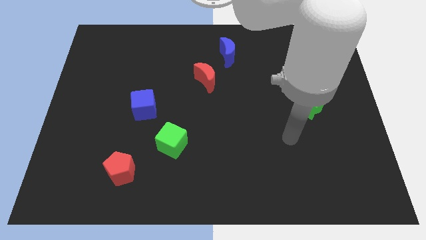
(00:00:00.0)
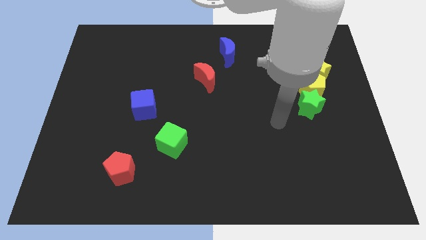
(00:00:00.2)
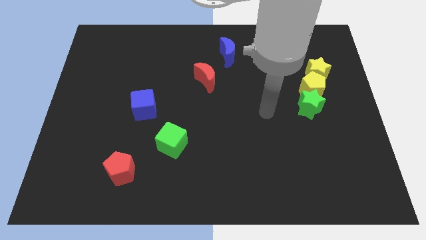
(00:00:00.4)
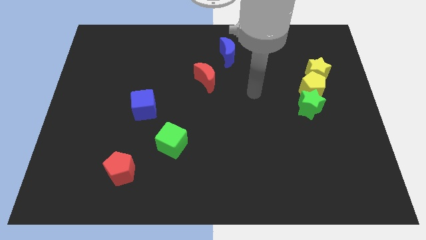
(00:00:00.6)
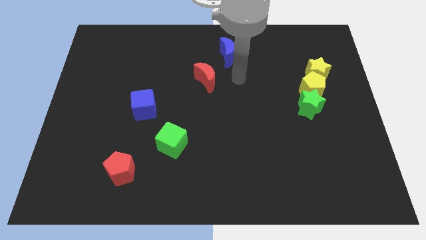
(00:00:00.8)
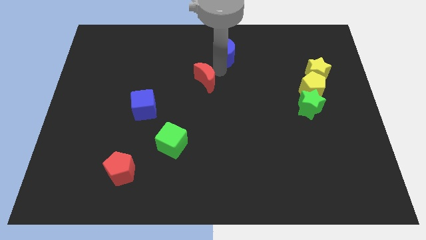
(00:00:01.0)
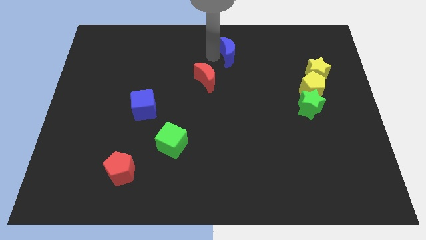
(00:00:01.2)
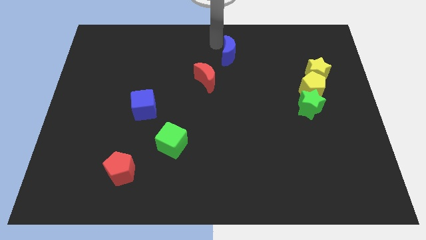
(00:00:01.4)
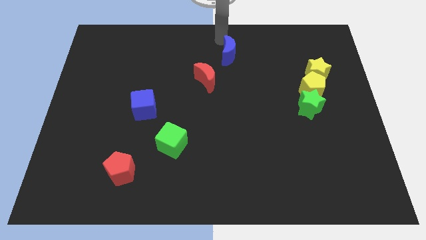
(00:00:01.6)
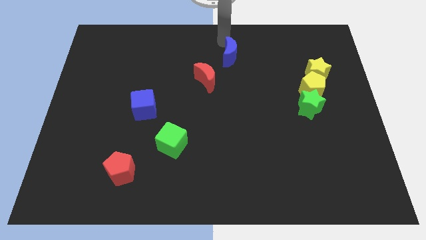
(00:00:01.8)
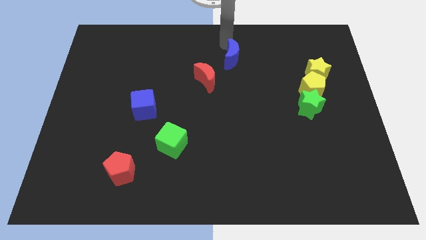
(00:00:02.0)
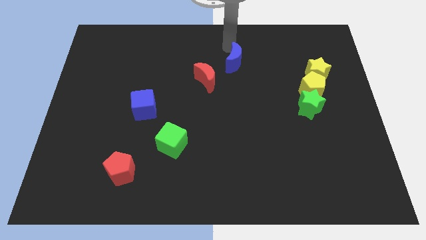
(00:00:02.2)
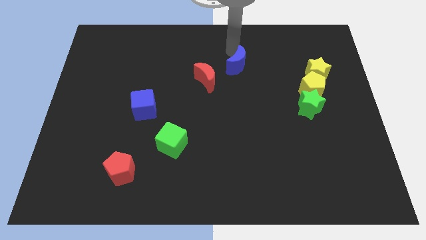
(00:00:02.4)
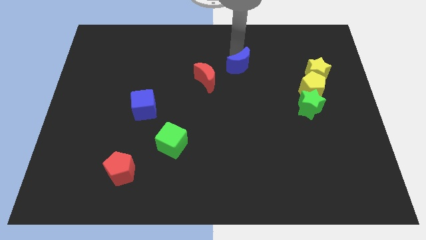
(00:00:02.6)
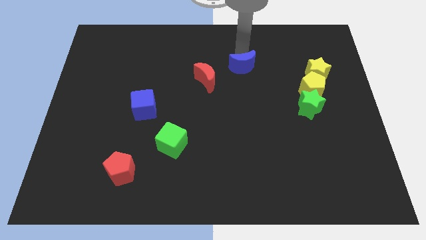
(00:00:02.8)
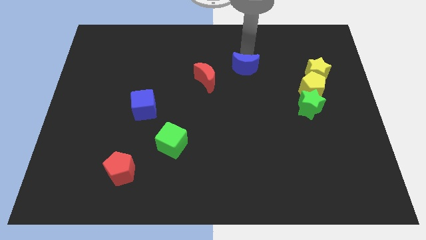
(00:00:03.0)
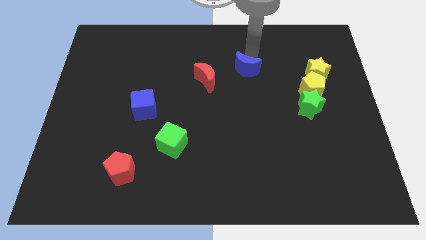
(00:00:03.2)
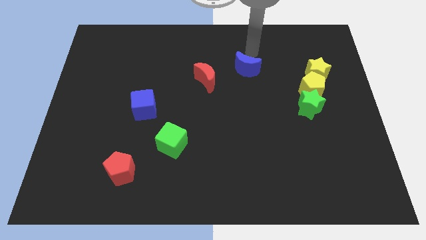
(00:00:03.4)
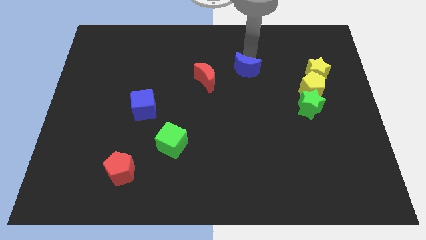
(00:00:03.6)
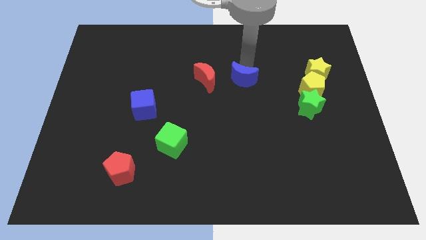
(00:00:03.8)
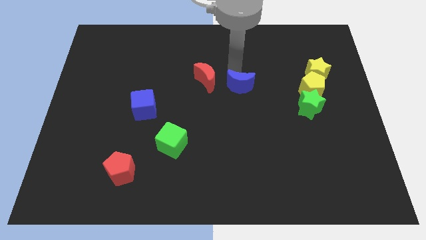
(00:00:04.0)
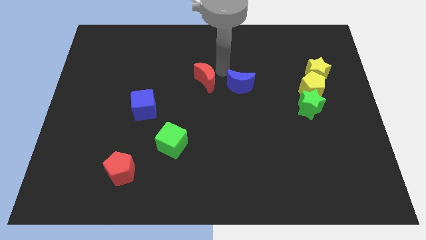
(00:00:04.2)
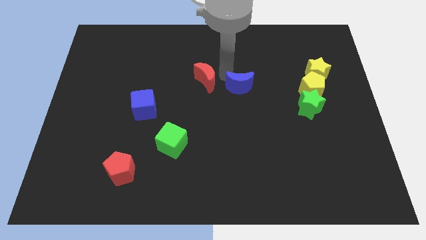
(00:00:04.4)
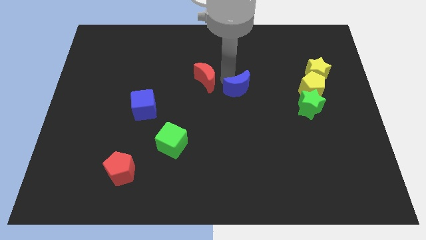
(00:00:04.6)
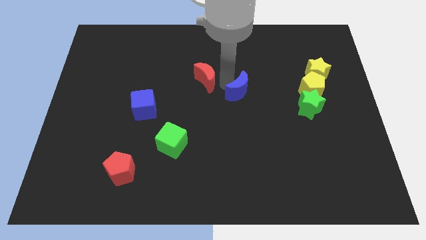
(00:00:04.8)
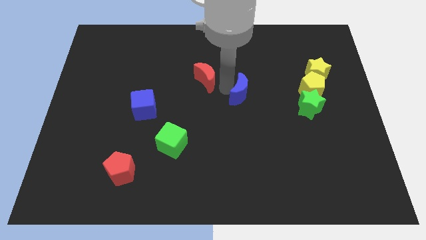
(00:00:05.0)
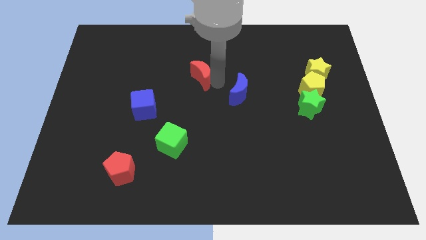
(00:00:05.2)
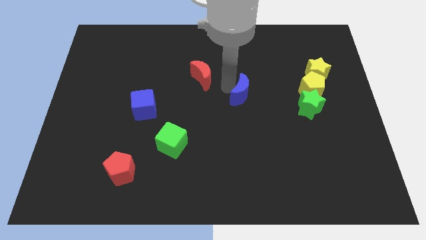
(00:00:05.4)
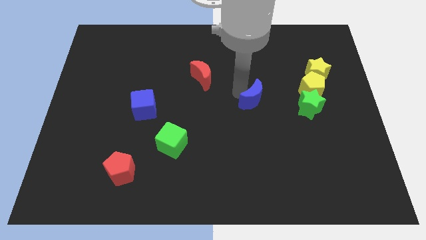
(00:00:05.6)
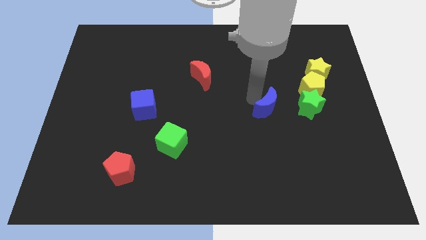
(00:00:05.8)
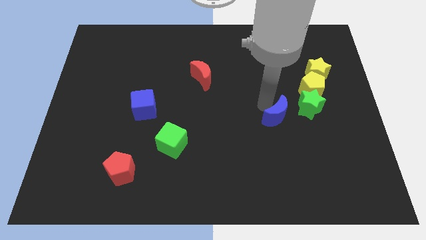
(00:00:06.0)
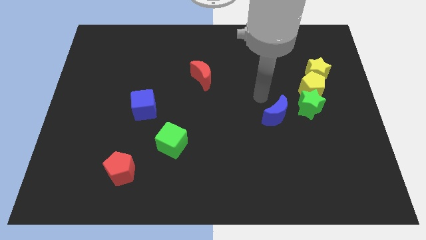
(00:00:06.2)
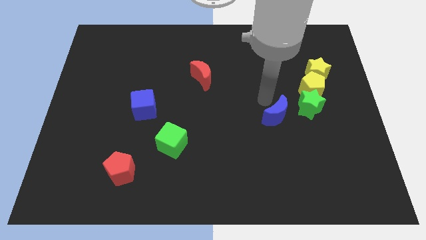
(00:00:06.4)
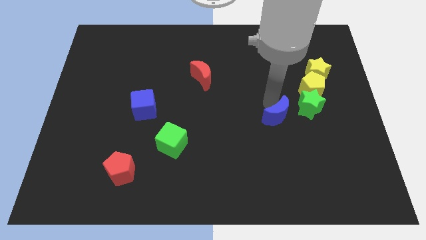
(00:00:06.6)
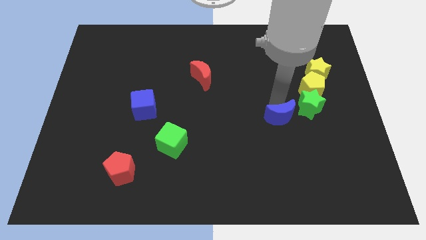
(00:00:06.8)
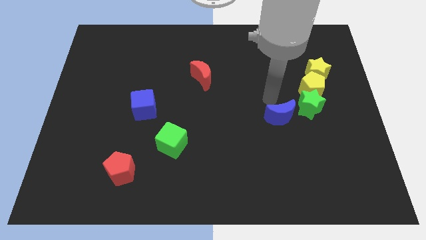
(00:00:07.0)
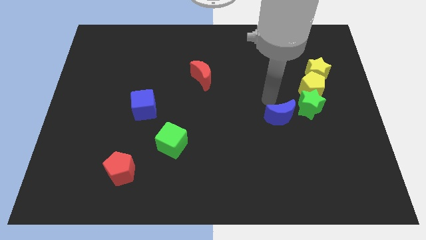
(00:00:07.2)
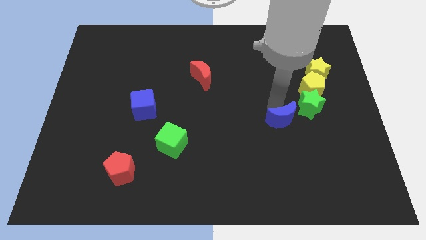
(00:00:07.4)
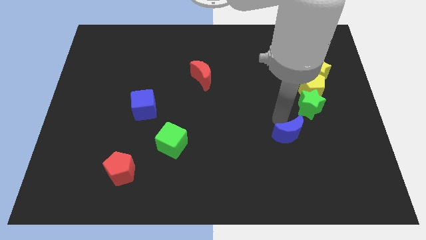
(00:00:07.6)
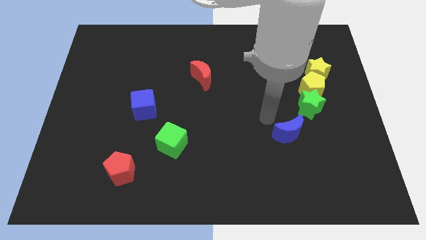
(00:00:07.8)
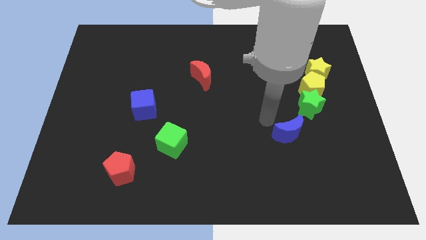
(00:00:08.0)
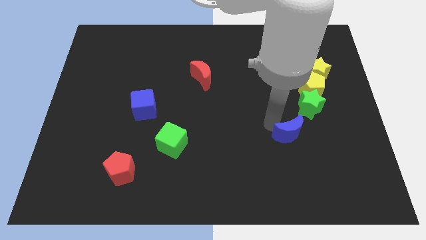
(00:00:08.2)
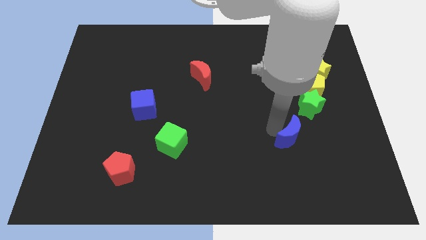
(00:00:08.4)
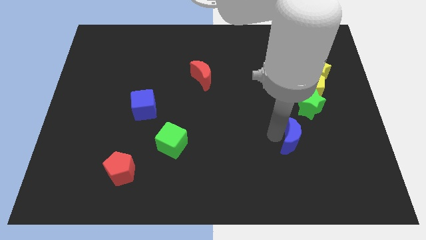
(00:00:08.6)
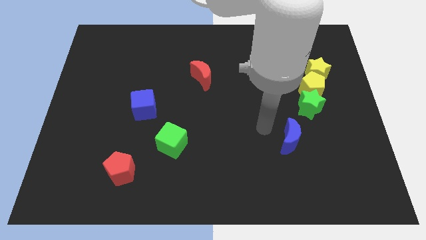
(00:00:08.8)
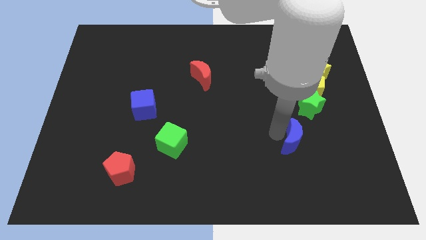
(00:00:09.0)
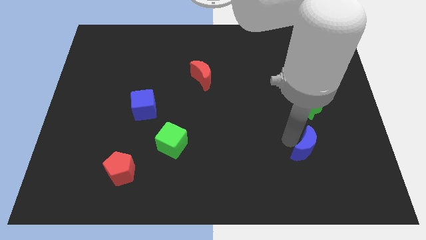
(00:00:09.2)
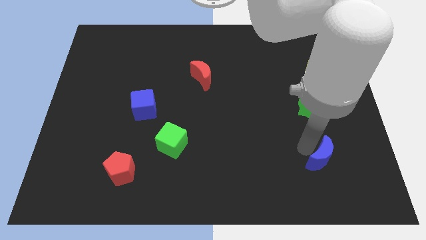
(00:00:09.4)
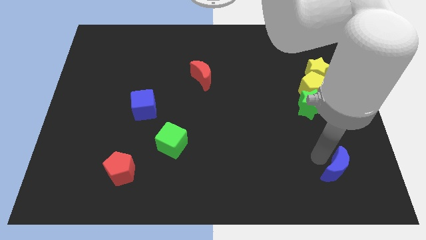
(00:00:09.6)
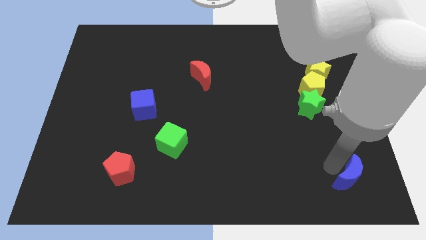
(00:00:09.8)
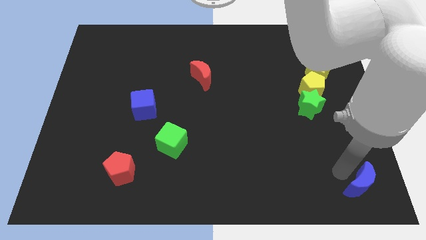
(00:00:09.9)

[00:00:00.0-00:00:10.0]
put the blue moon to the bottom right

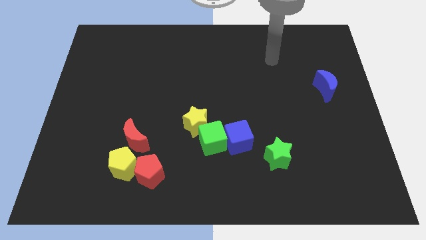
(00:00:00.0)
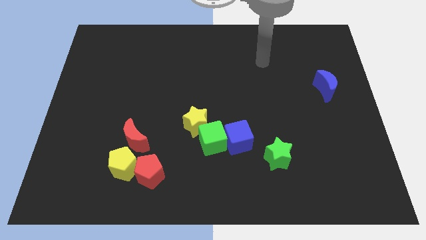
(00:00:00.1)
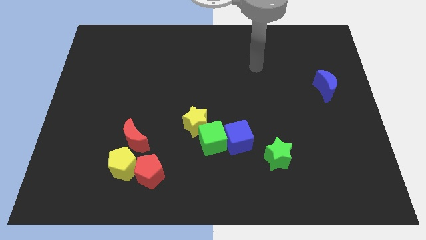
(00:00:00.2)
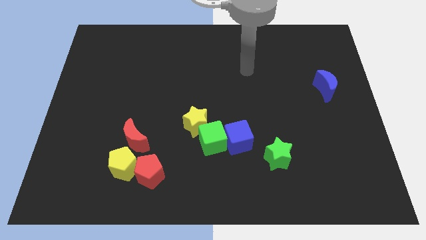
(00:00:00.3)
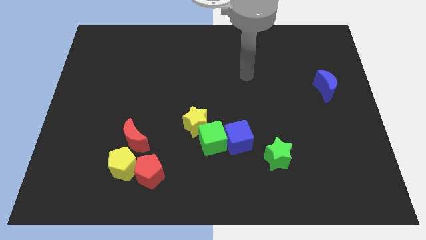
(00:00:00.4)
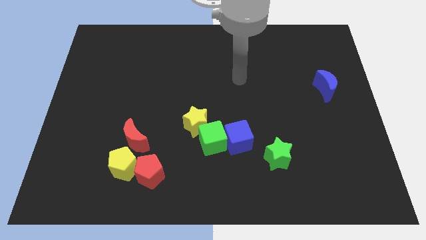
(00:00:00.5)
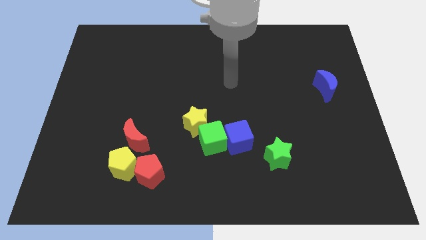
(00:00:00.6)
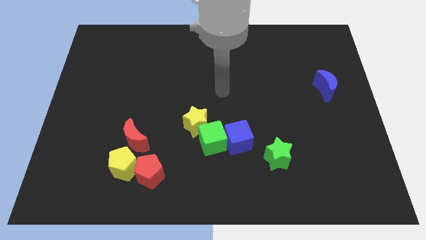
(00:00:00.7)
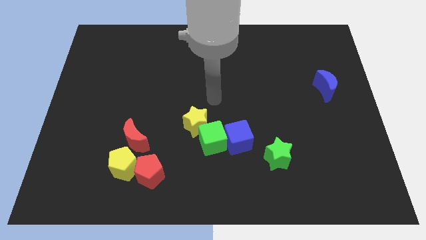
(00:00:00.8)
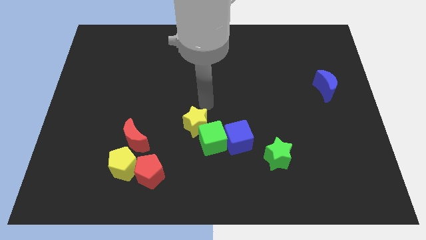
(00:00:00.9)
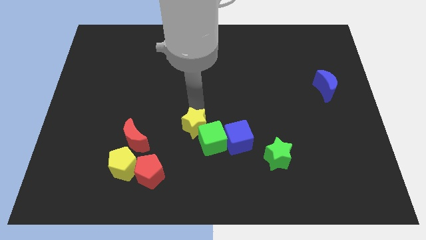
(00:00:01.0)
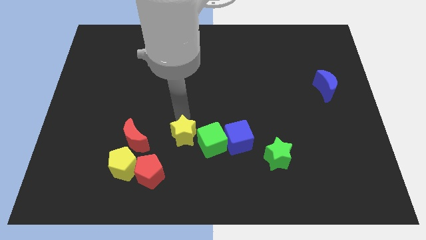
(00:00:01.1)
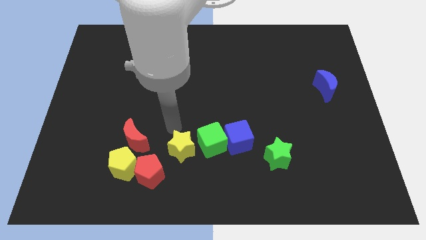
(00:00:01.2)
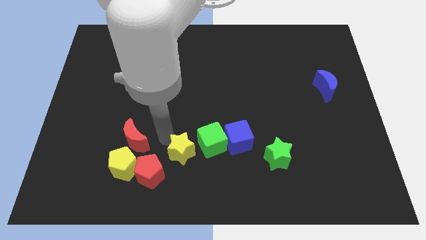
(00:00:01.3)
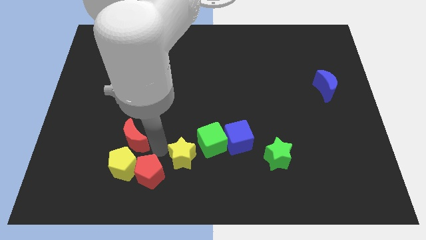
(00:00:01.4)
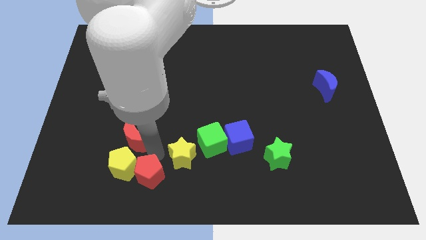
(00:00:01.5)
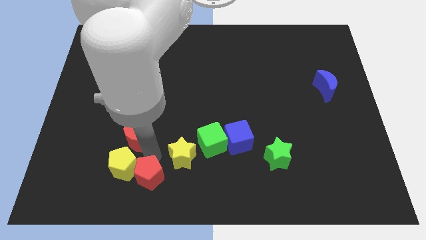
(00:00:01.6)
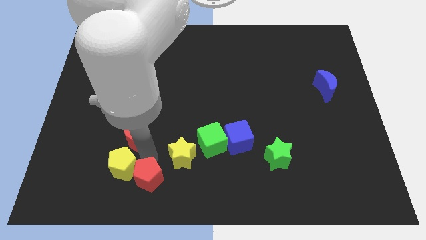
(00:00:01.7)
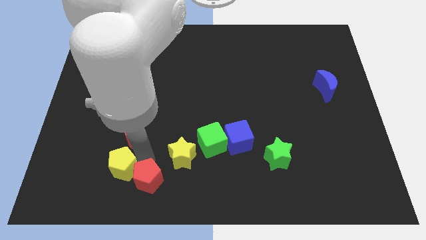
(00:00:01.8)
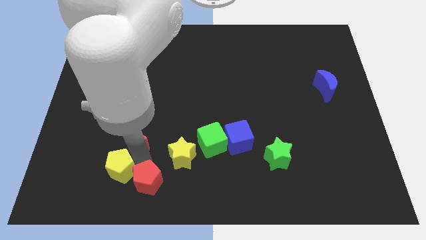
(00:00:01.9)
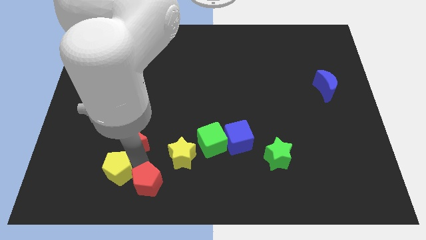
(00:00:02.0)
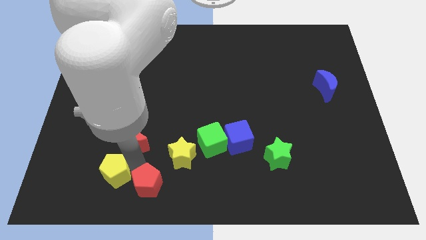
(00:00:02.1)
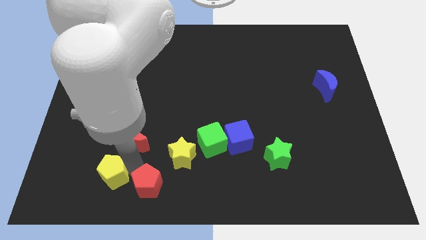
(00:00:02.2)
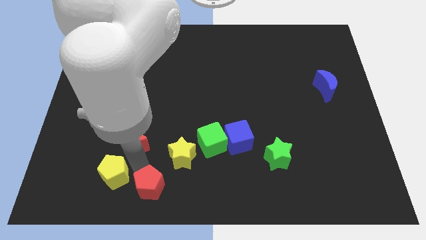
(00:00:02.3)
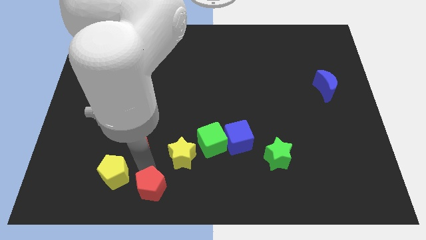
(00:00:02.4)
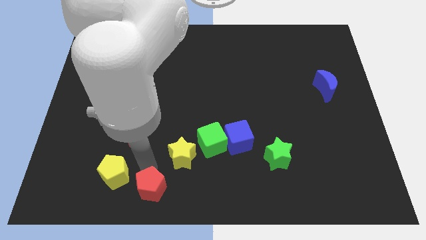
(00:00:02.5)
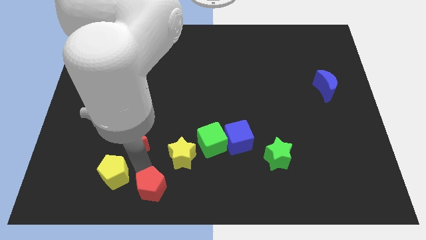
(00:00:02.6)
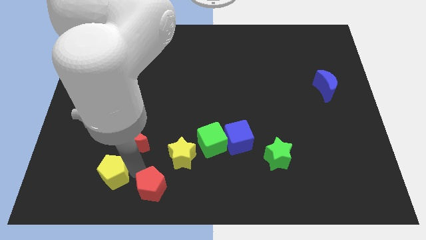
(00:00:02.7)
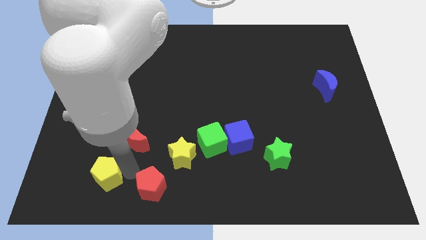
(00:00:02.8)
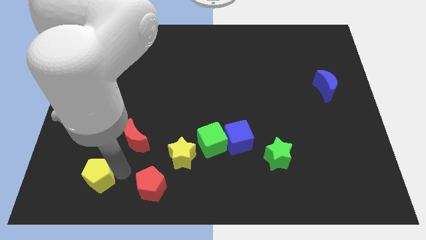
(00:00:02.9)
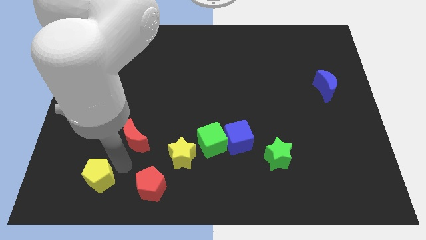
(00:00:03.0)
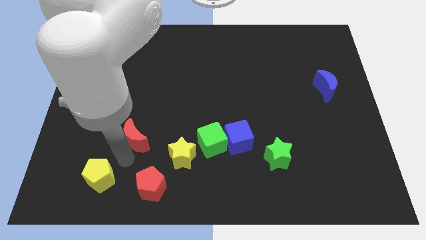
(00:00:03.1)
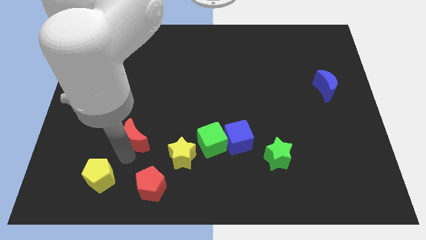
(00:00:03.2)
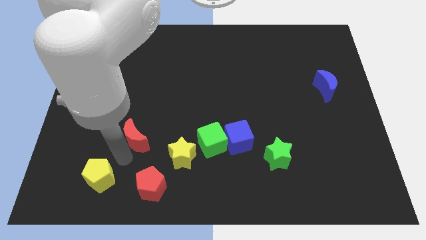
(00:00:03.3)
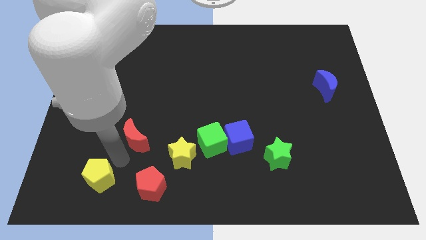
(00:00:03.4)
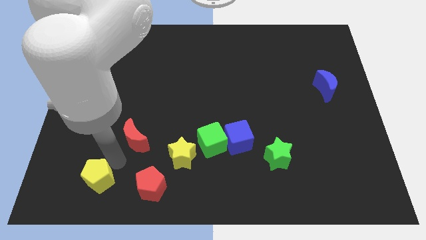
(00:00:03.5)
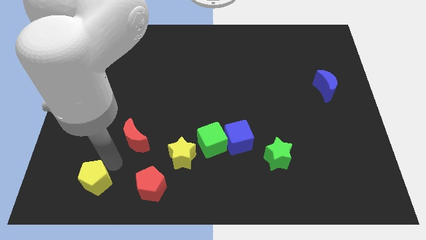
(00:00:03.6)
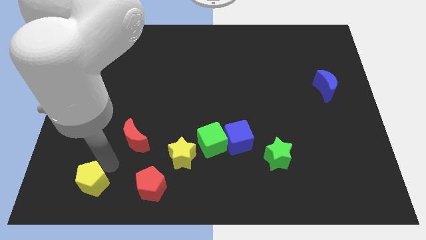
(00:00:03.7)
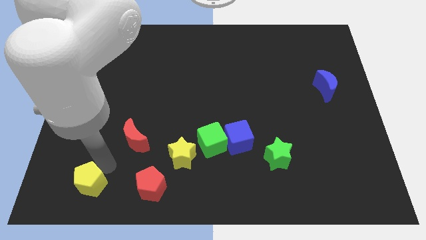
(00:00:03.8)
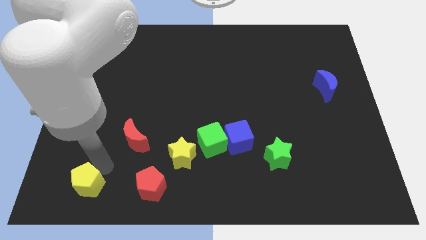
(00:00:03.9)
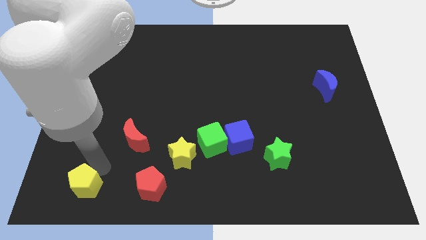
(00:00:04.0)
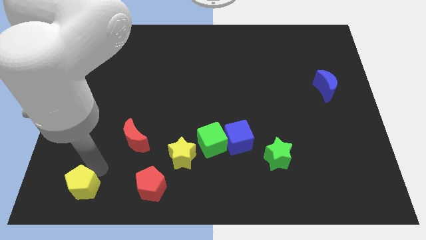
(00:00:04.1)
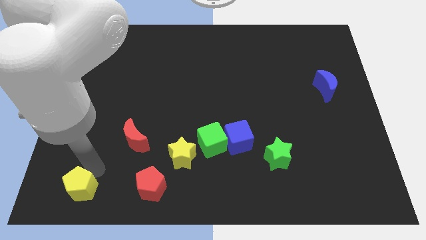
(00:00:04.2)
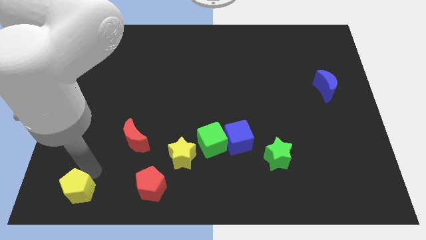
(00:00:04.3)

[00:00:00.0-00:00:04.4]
slide the yellow pentagon to the bottom left of the board
